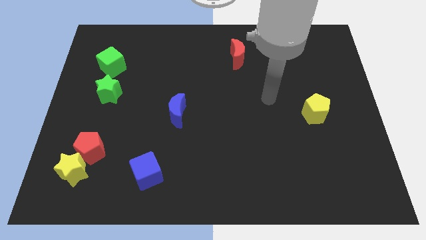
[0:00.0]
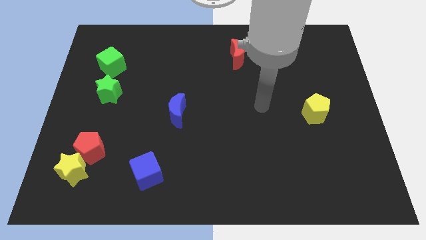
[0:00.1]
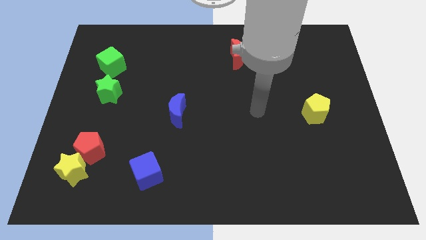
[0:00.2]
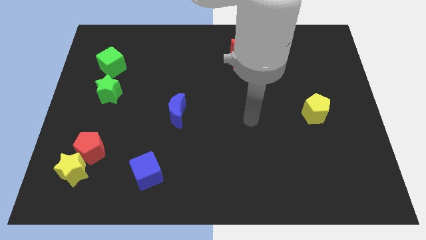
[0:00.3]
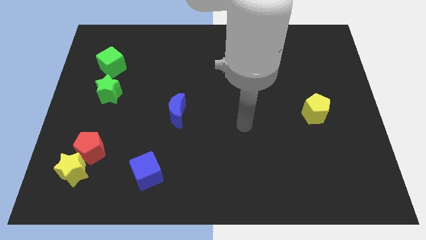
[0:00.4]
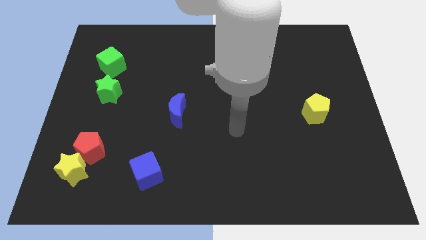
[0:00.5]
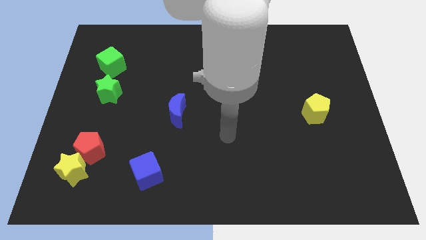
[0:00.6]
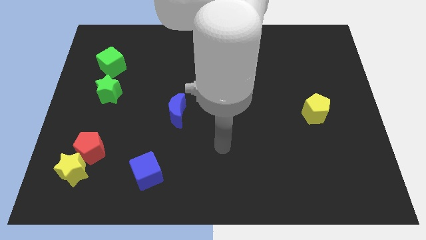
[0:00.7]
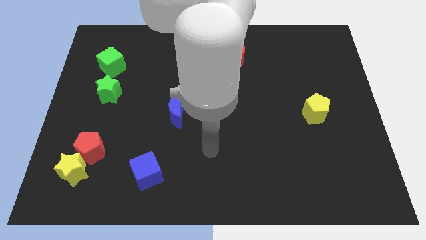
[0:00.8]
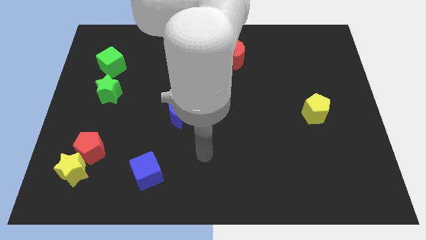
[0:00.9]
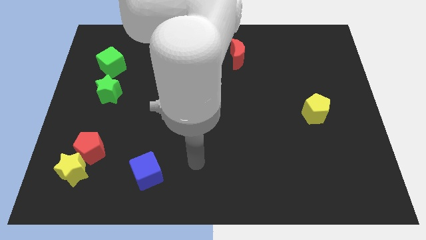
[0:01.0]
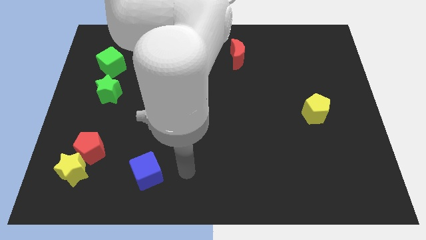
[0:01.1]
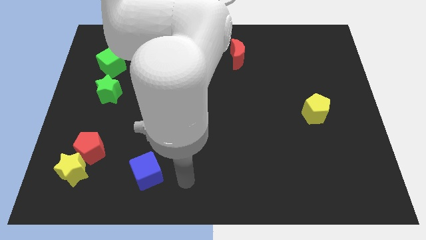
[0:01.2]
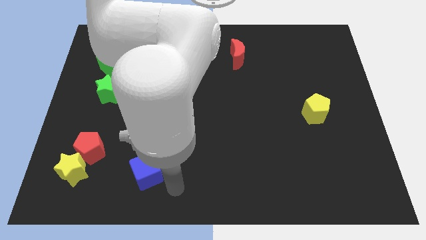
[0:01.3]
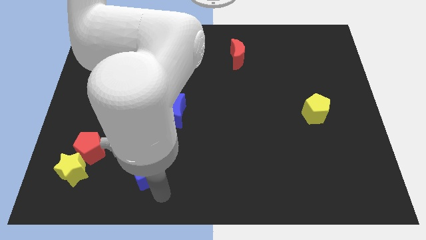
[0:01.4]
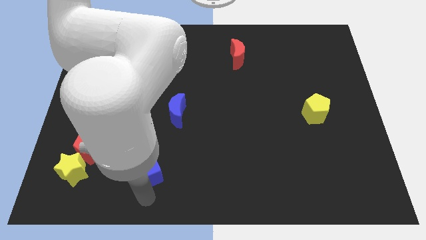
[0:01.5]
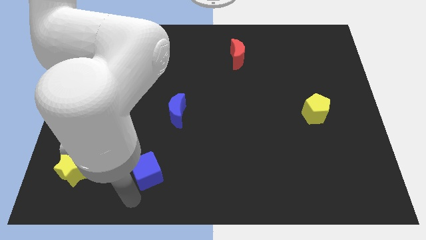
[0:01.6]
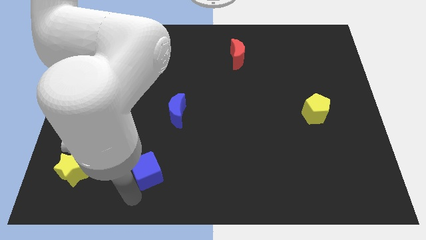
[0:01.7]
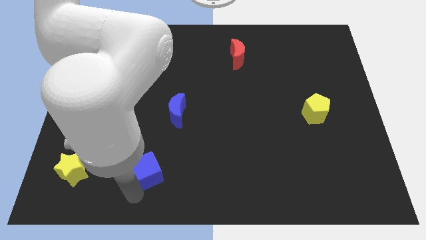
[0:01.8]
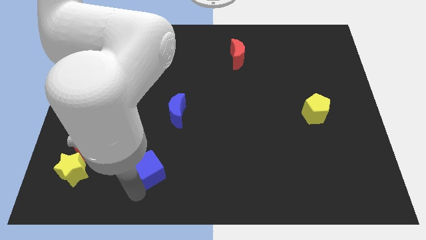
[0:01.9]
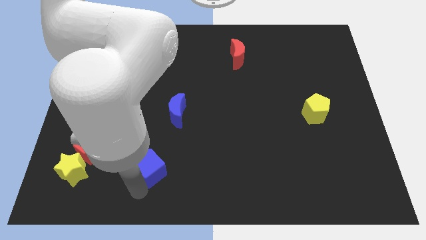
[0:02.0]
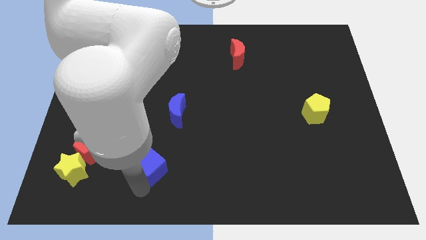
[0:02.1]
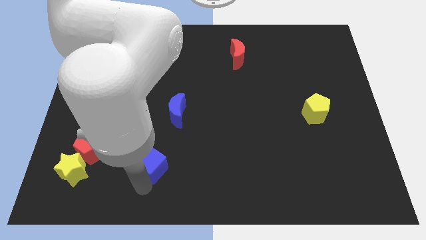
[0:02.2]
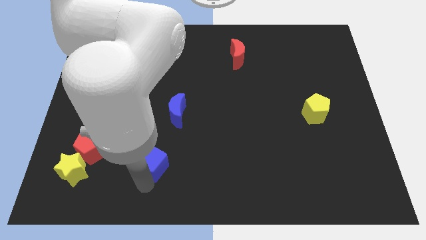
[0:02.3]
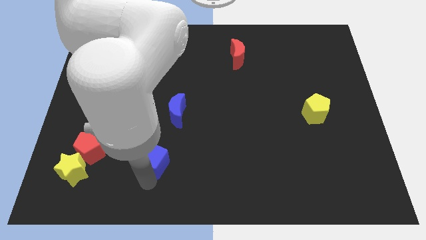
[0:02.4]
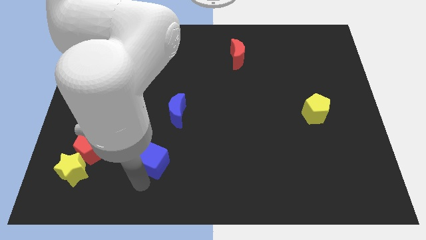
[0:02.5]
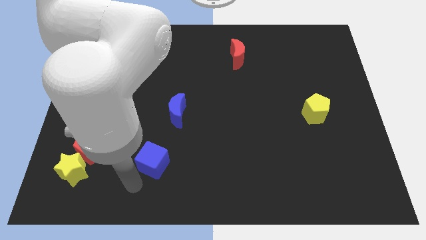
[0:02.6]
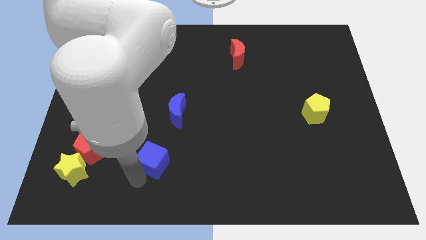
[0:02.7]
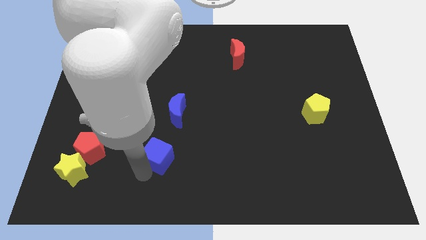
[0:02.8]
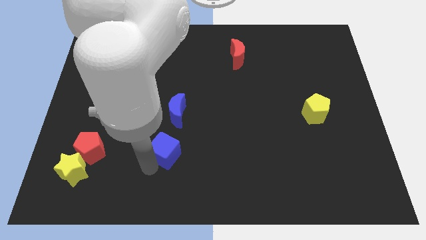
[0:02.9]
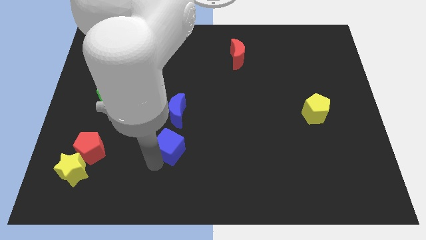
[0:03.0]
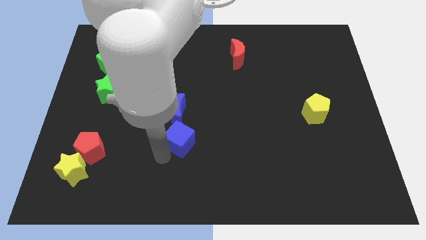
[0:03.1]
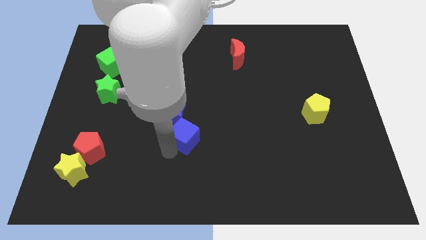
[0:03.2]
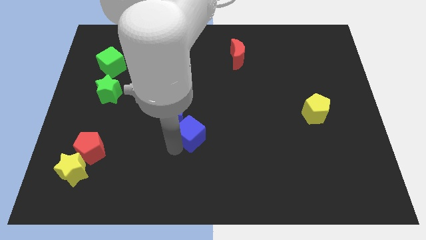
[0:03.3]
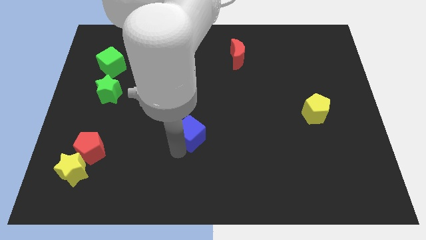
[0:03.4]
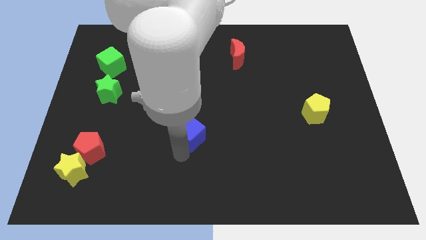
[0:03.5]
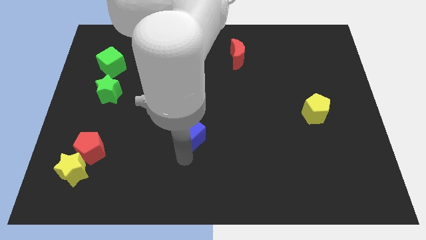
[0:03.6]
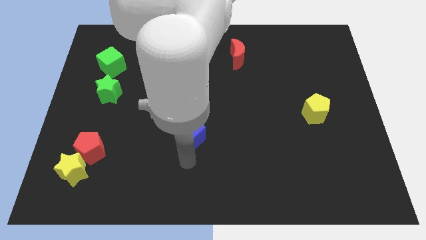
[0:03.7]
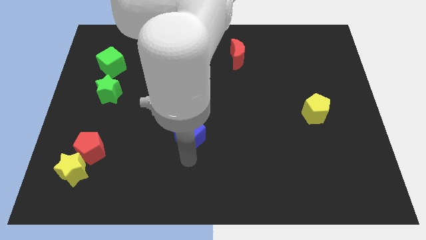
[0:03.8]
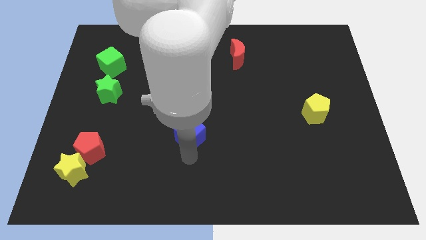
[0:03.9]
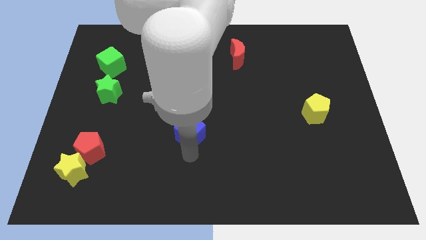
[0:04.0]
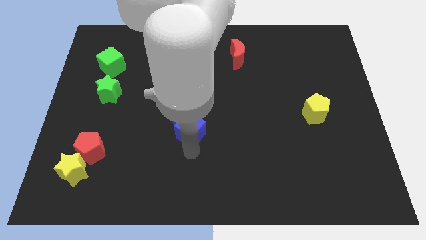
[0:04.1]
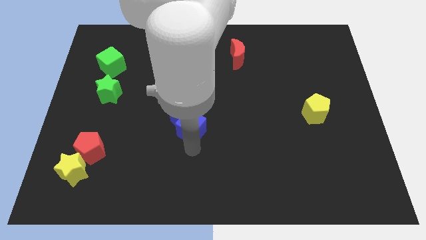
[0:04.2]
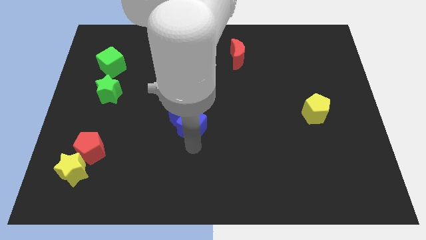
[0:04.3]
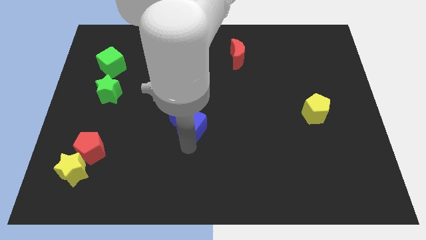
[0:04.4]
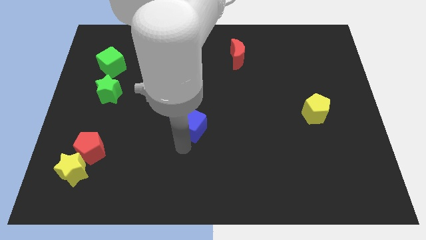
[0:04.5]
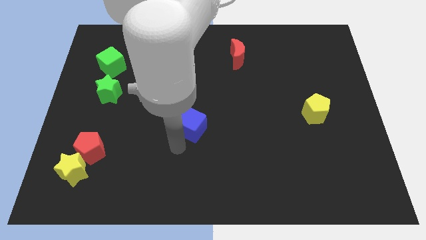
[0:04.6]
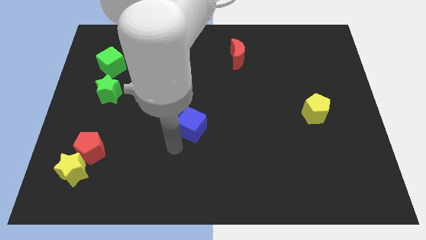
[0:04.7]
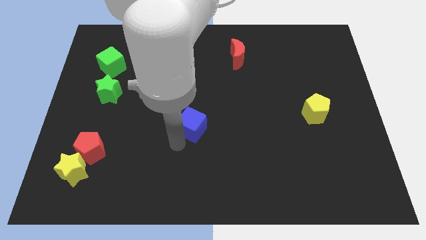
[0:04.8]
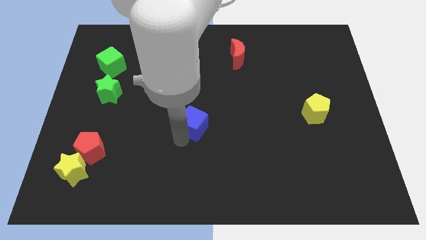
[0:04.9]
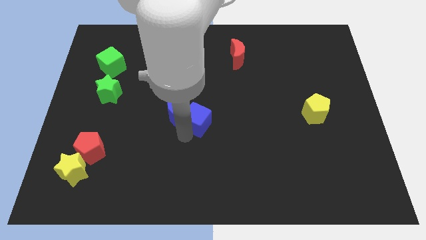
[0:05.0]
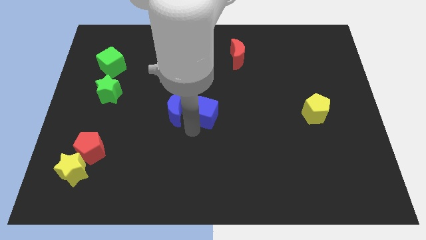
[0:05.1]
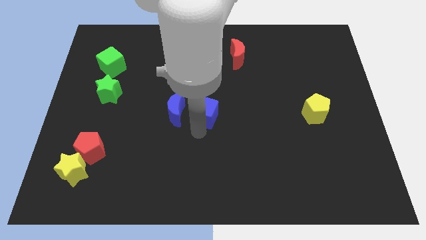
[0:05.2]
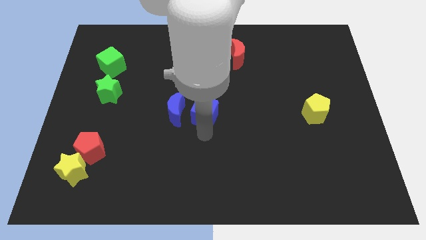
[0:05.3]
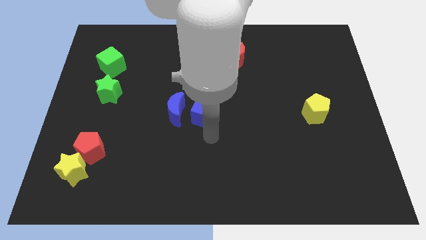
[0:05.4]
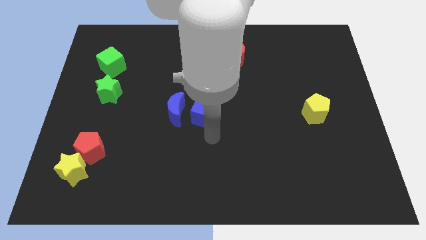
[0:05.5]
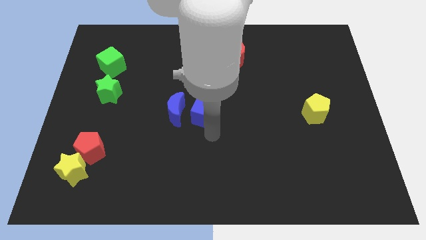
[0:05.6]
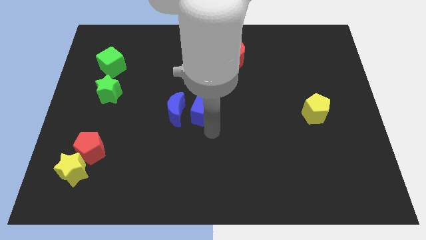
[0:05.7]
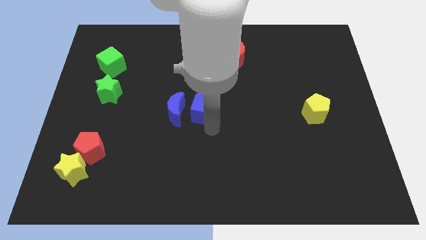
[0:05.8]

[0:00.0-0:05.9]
slide the blue cube to the top right side of the blue moon

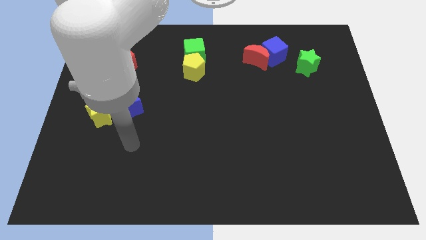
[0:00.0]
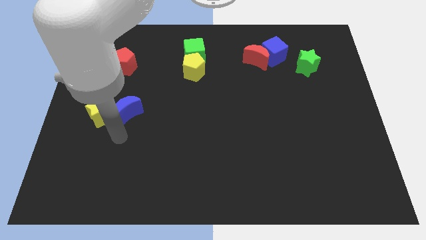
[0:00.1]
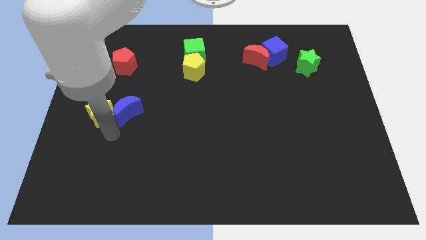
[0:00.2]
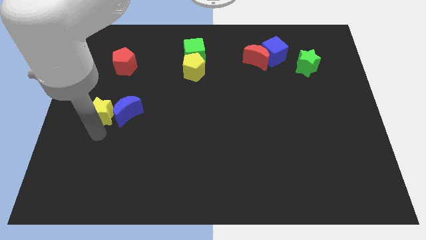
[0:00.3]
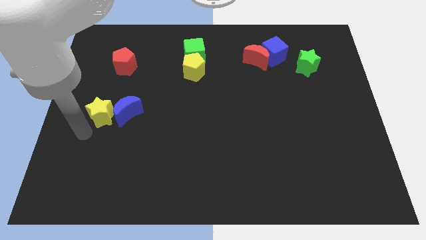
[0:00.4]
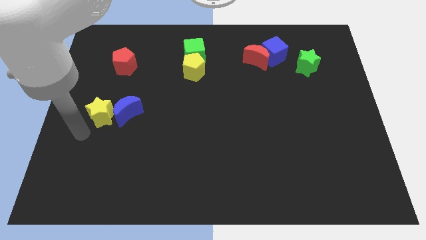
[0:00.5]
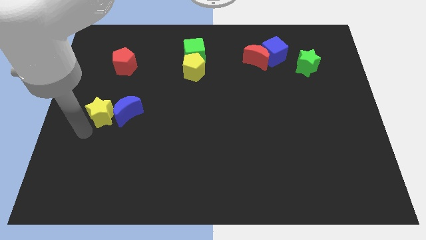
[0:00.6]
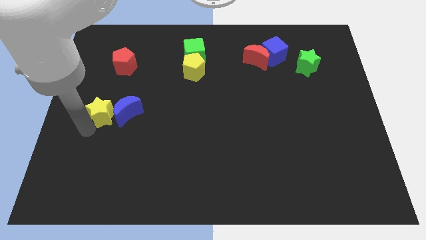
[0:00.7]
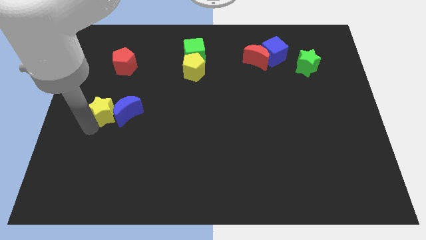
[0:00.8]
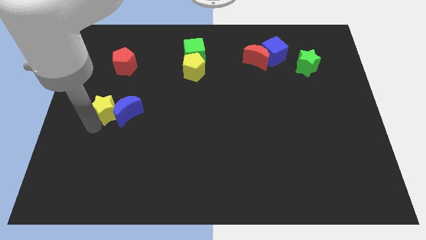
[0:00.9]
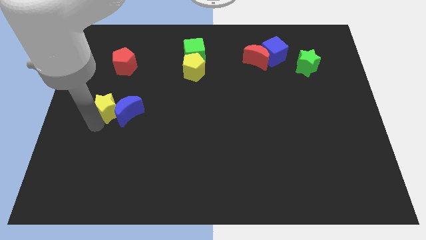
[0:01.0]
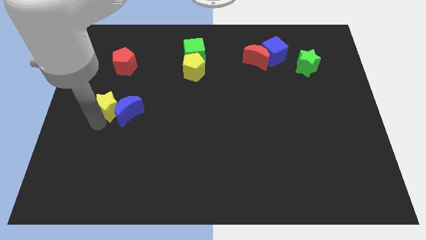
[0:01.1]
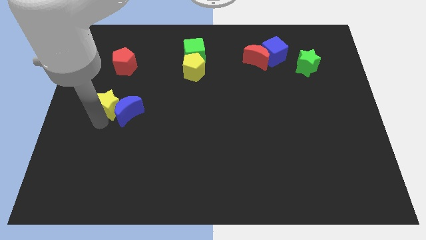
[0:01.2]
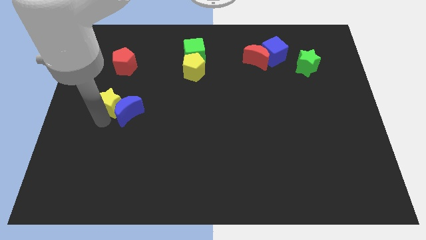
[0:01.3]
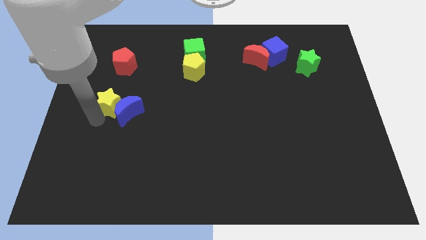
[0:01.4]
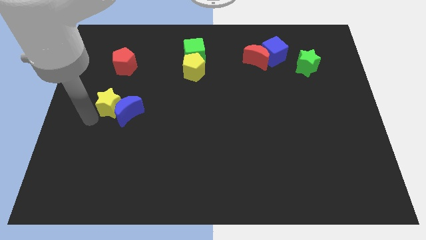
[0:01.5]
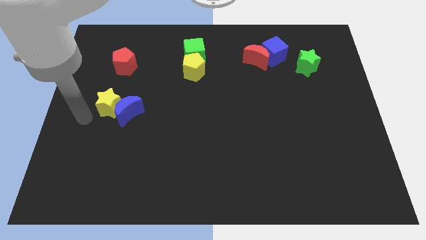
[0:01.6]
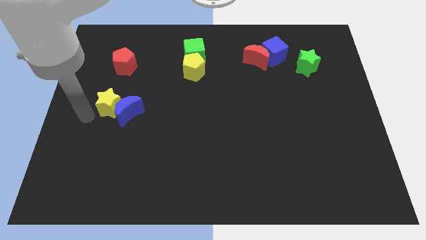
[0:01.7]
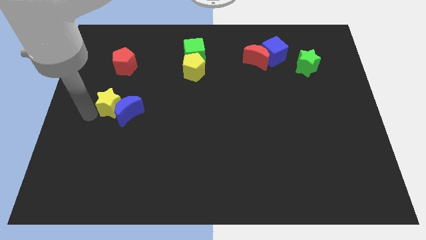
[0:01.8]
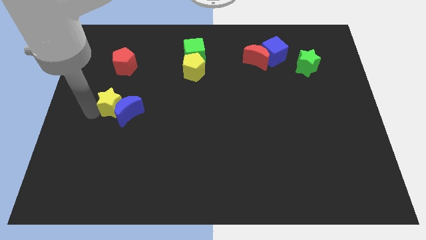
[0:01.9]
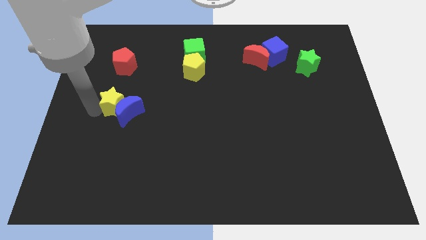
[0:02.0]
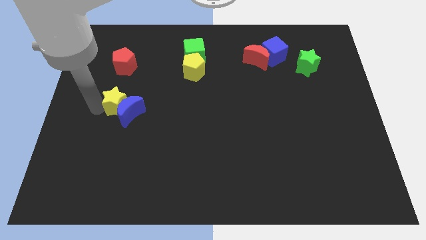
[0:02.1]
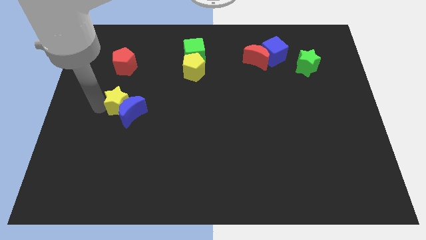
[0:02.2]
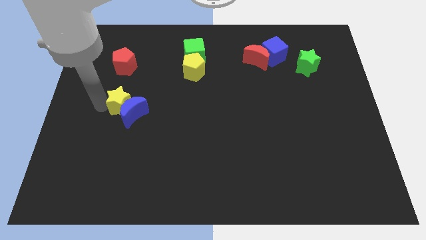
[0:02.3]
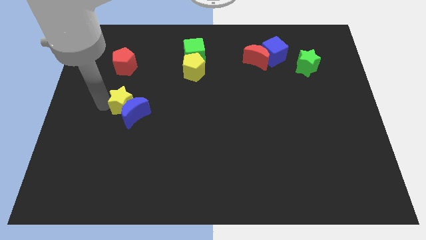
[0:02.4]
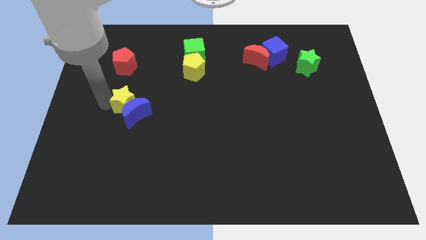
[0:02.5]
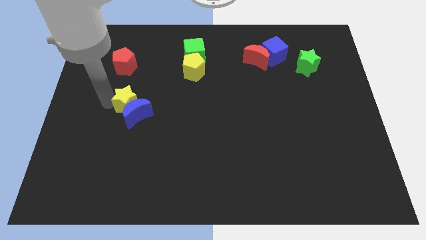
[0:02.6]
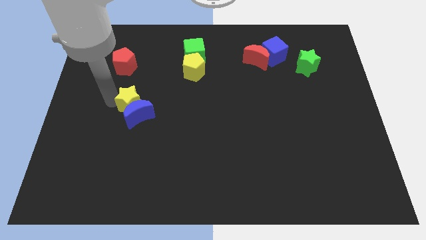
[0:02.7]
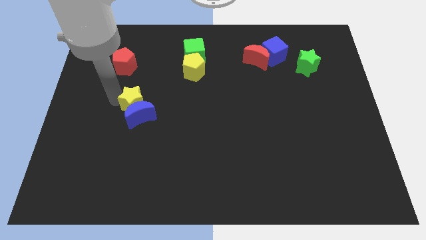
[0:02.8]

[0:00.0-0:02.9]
put the yellow star to the top right side of the blue moon
